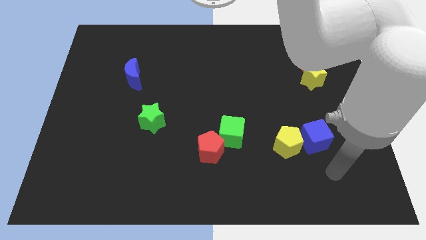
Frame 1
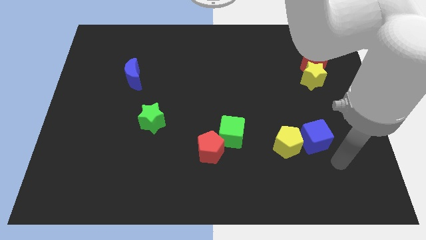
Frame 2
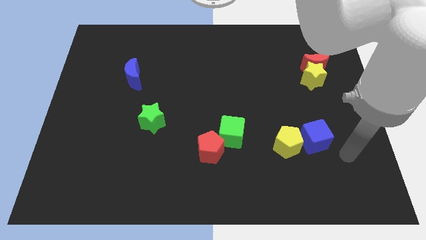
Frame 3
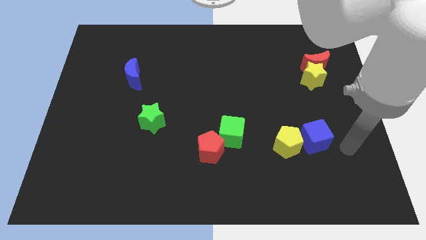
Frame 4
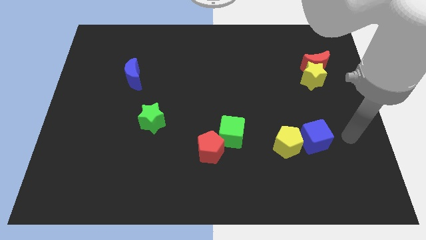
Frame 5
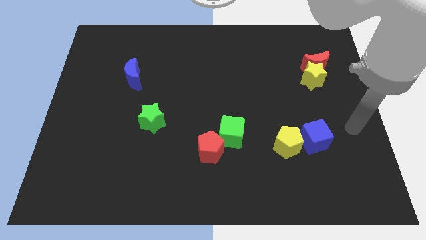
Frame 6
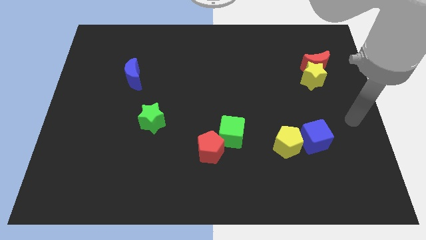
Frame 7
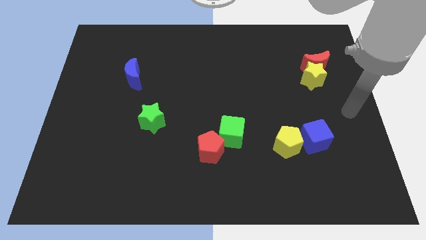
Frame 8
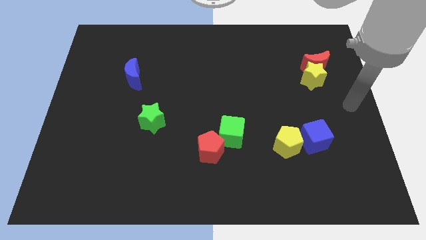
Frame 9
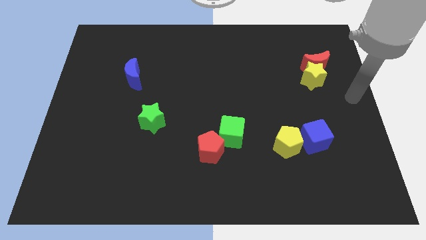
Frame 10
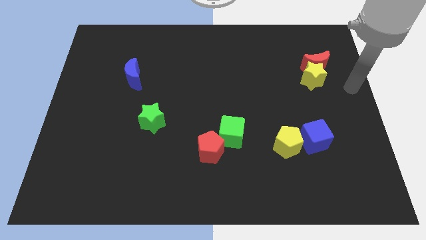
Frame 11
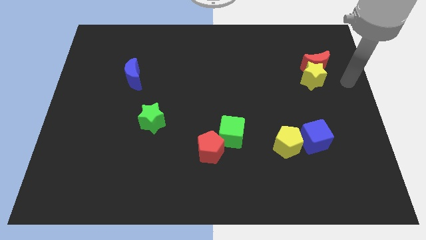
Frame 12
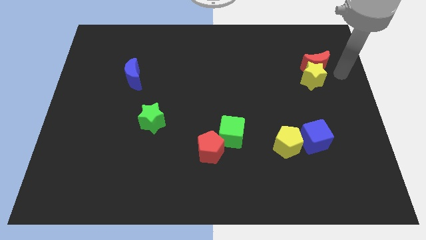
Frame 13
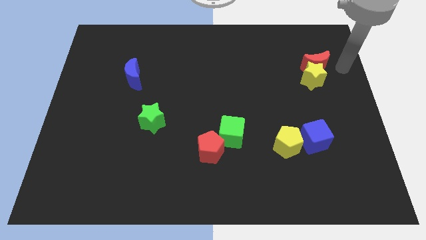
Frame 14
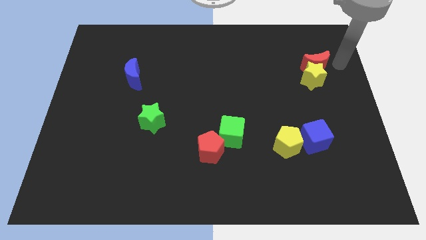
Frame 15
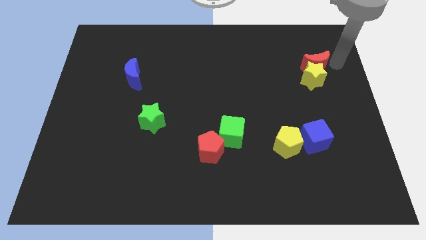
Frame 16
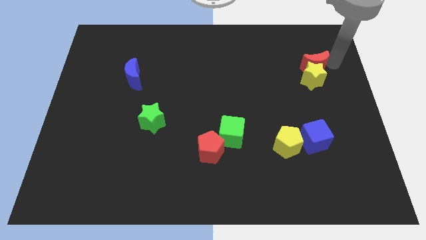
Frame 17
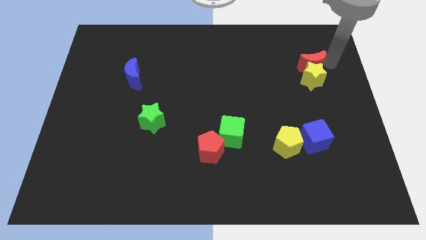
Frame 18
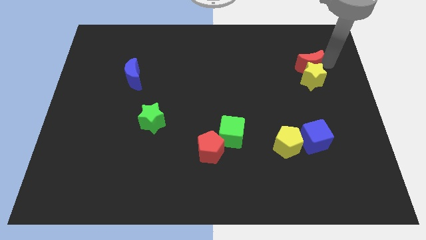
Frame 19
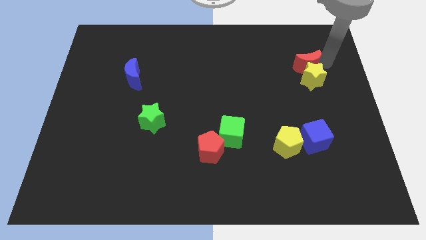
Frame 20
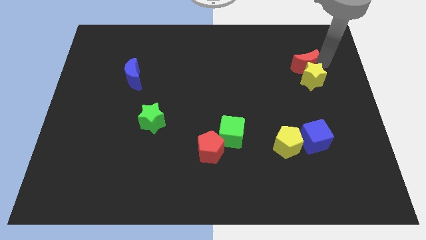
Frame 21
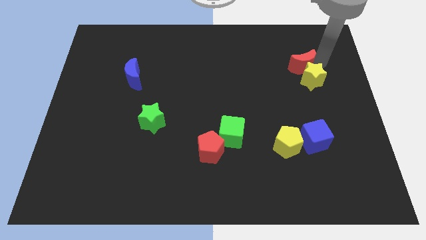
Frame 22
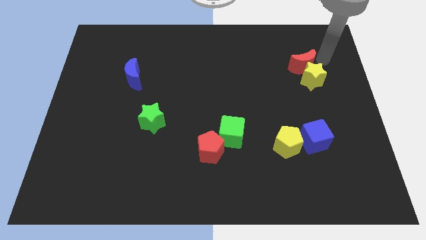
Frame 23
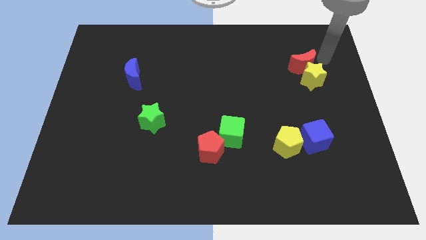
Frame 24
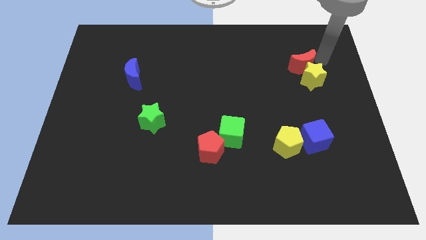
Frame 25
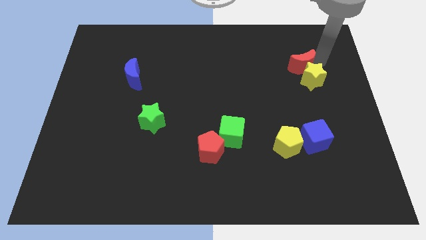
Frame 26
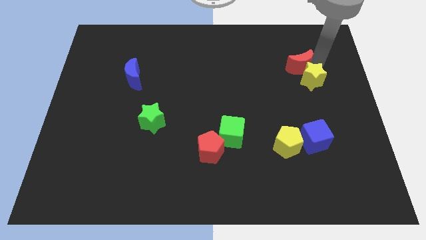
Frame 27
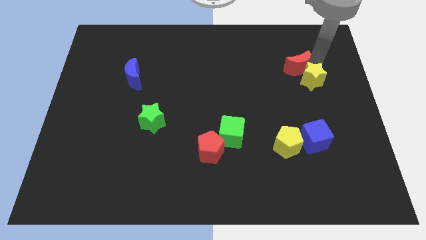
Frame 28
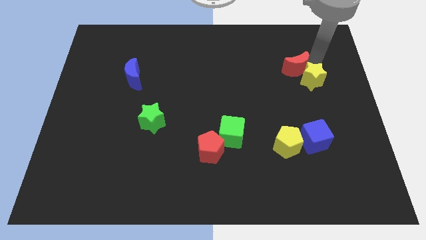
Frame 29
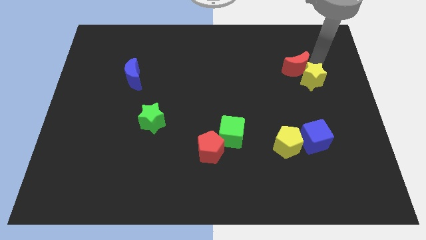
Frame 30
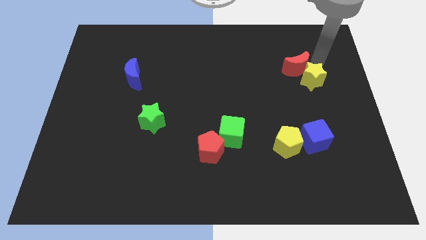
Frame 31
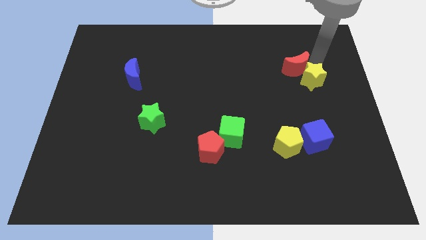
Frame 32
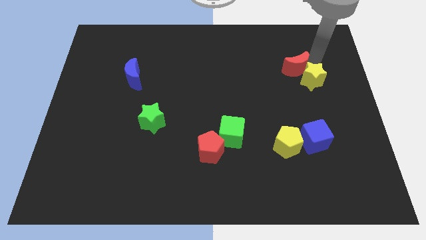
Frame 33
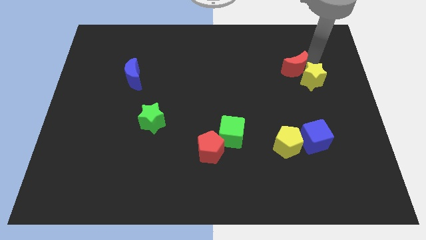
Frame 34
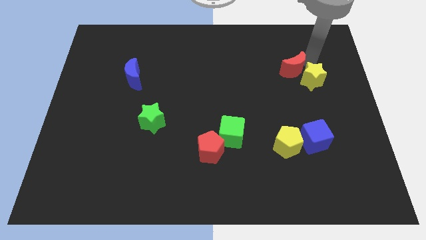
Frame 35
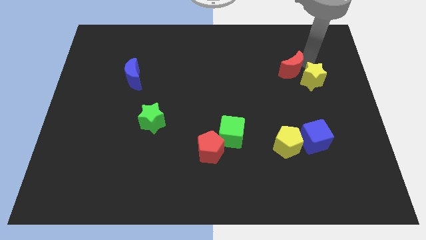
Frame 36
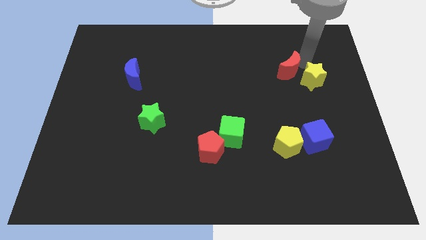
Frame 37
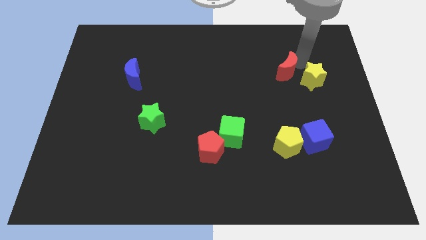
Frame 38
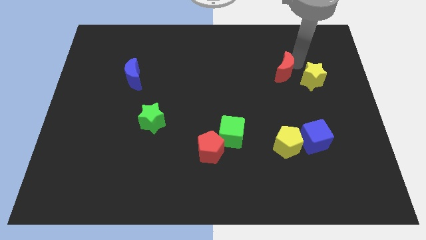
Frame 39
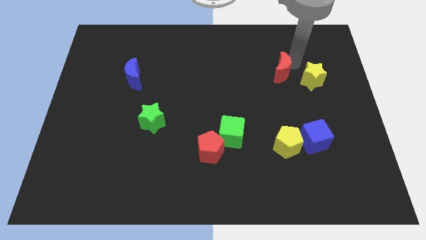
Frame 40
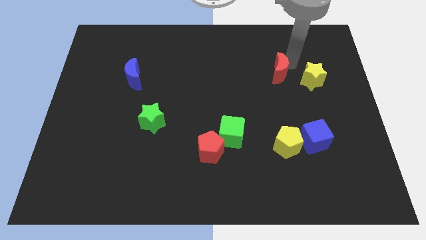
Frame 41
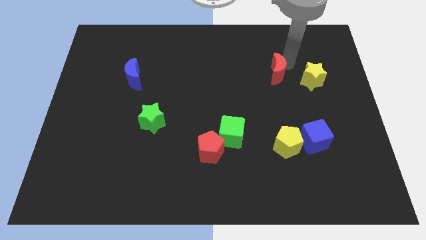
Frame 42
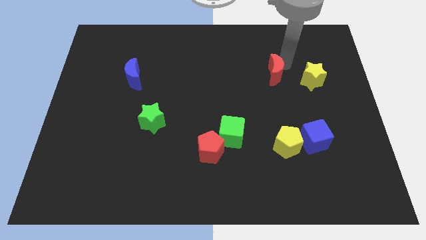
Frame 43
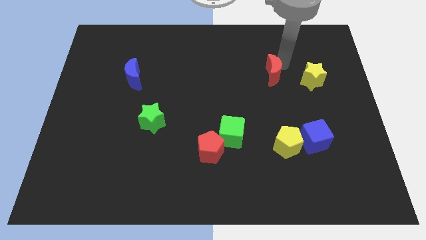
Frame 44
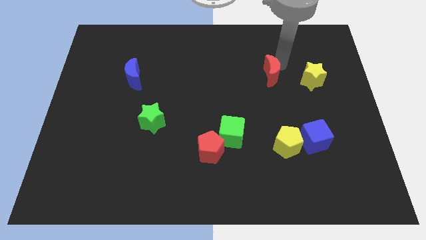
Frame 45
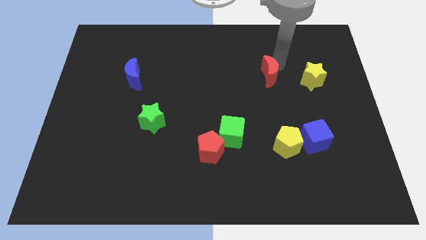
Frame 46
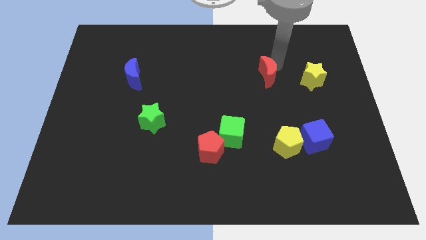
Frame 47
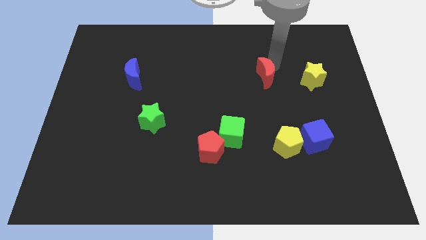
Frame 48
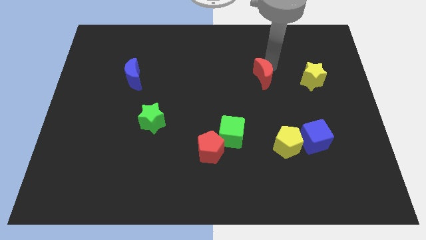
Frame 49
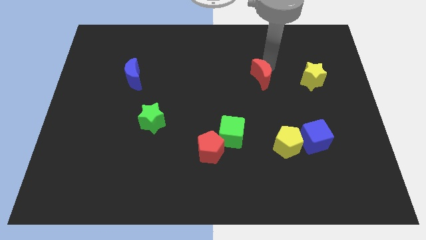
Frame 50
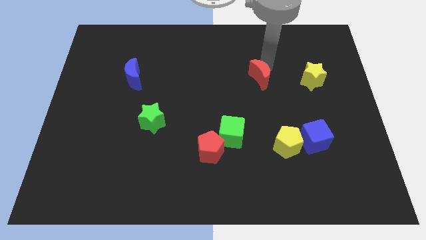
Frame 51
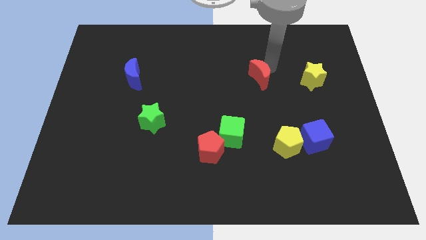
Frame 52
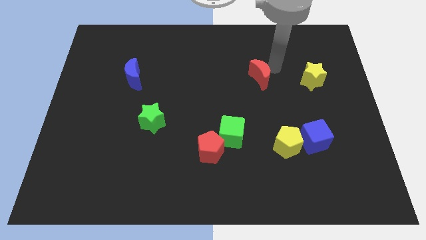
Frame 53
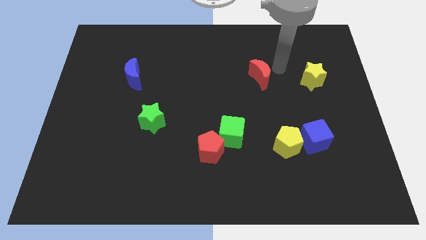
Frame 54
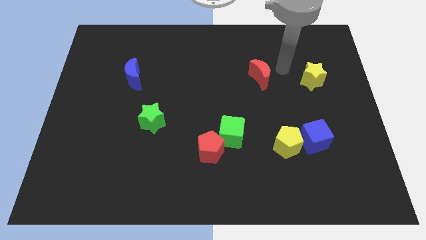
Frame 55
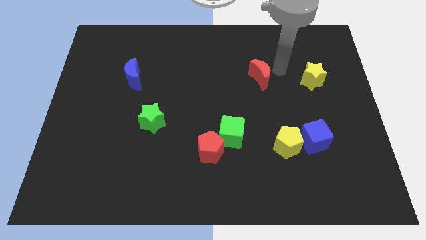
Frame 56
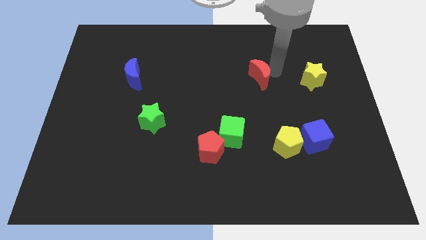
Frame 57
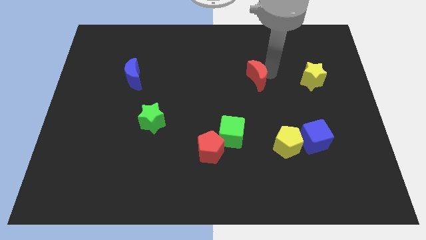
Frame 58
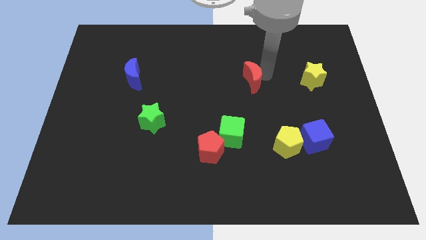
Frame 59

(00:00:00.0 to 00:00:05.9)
push the red moon to the center

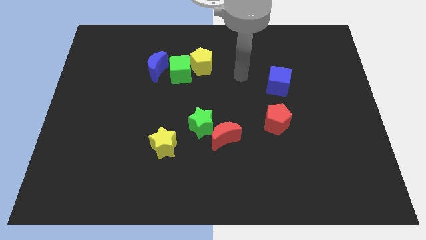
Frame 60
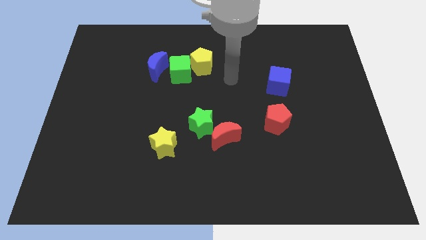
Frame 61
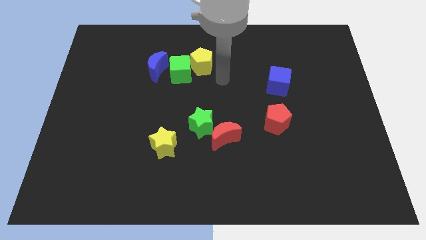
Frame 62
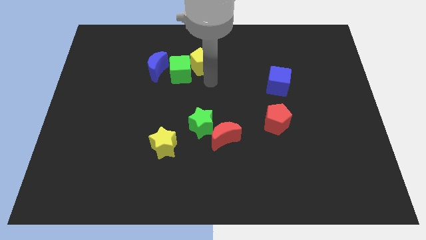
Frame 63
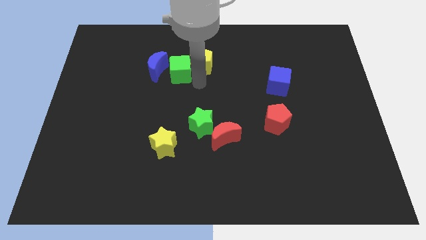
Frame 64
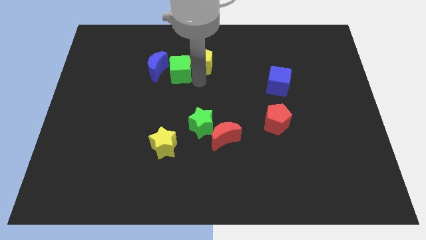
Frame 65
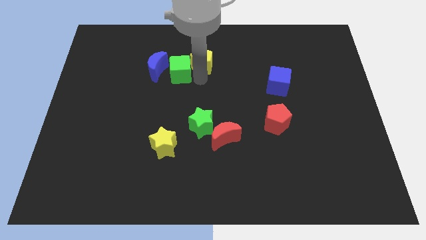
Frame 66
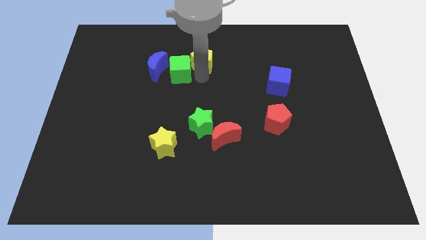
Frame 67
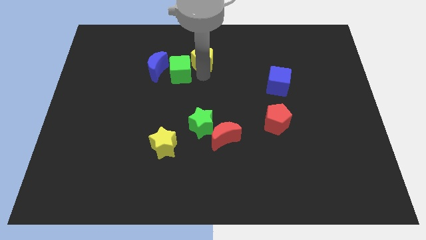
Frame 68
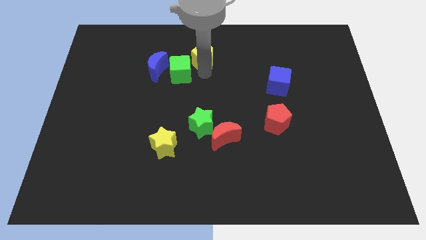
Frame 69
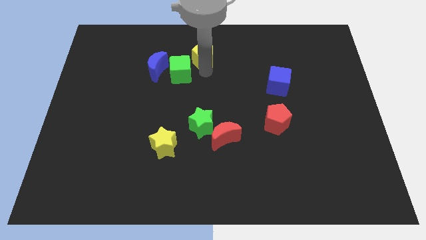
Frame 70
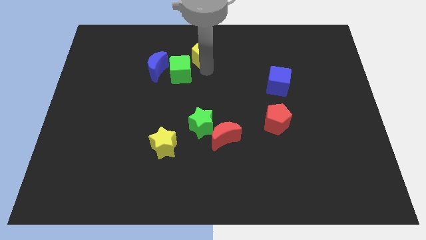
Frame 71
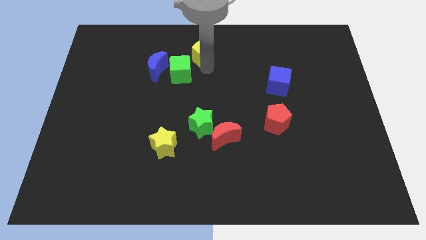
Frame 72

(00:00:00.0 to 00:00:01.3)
move the yellow pentagon to the towards your base
